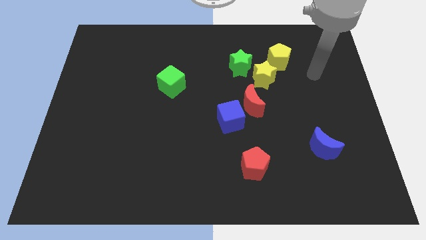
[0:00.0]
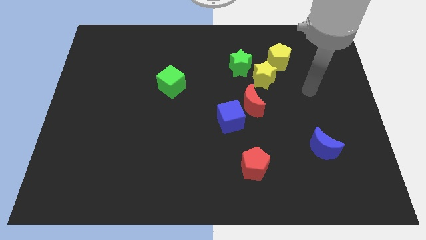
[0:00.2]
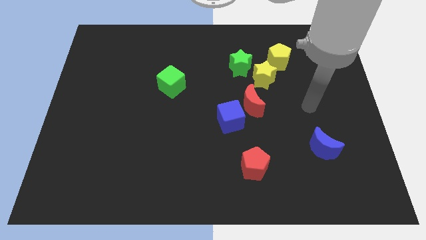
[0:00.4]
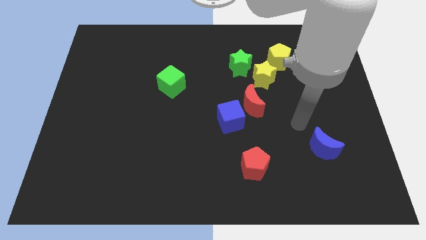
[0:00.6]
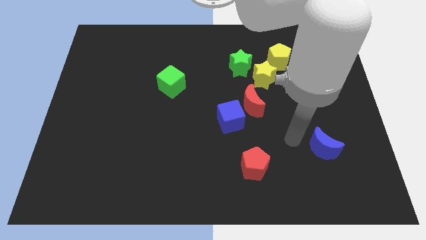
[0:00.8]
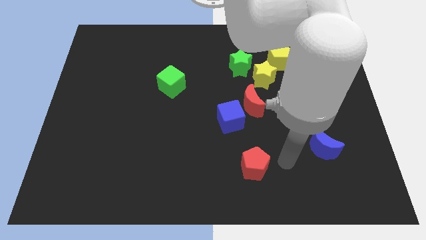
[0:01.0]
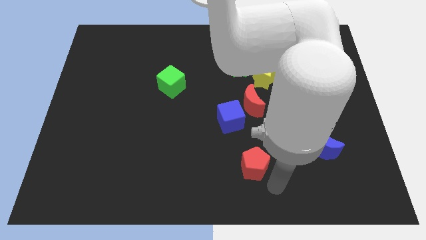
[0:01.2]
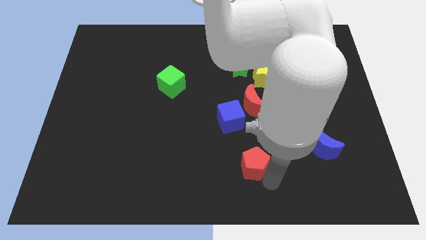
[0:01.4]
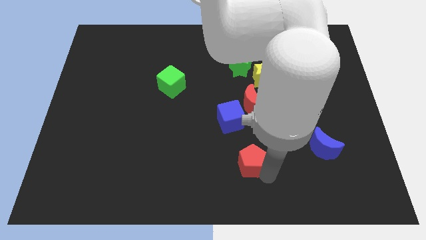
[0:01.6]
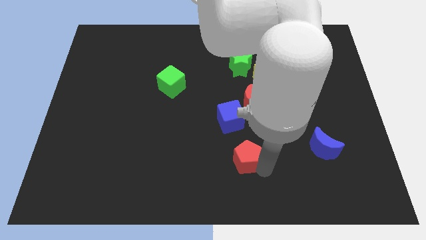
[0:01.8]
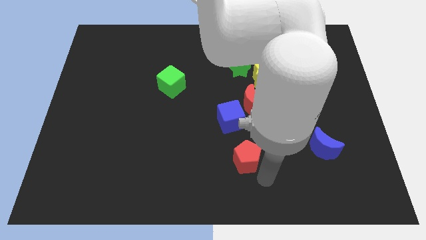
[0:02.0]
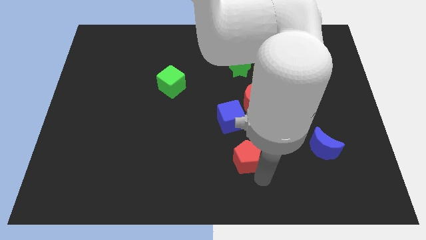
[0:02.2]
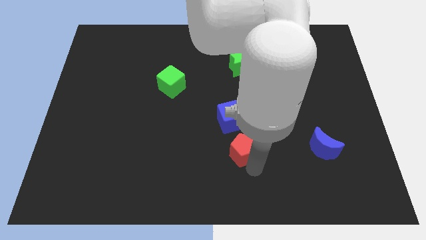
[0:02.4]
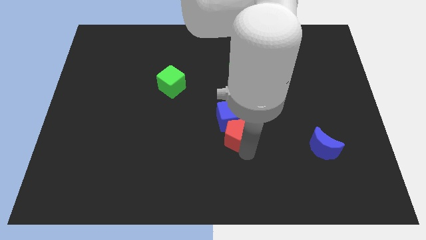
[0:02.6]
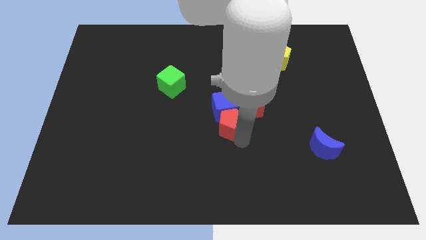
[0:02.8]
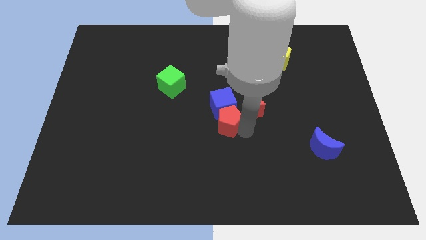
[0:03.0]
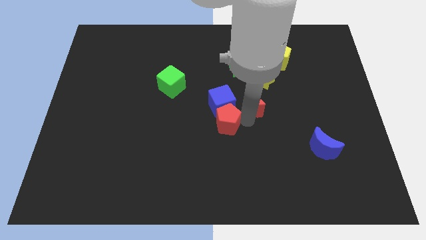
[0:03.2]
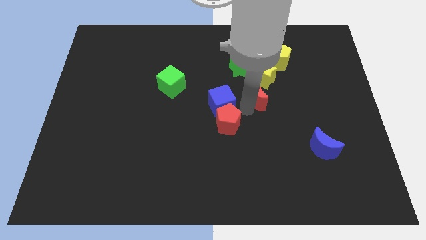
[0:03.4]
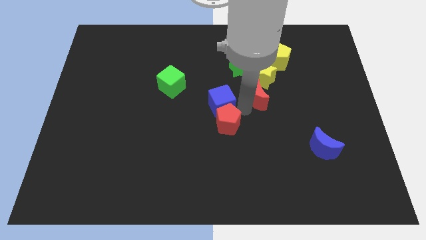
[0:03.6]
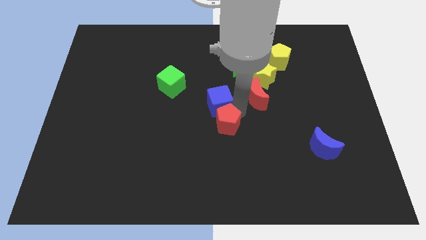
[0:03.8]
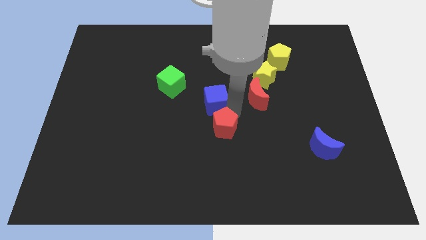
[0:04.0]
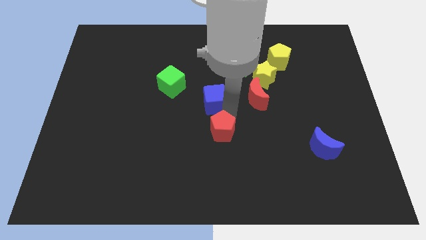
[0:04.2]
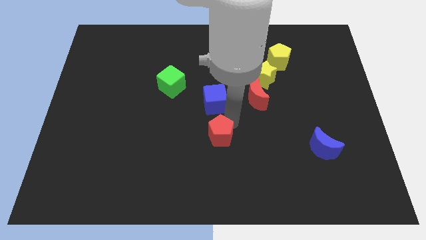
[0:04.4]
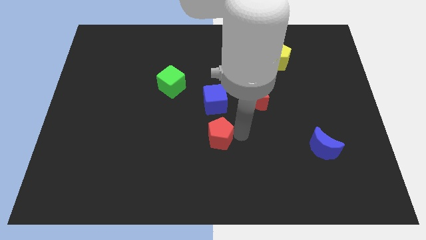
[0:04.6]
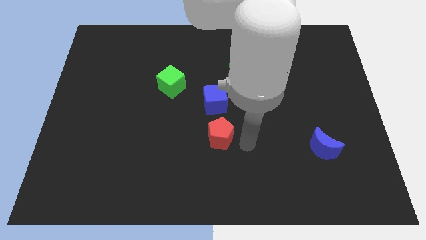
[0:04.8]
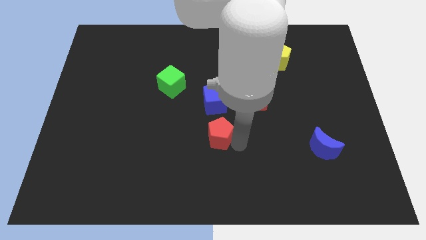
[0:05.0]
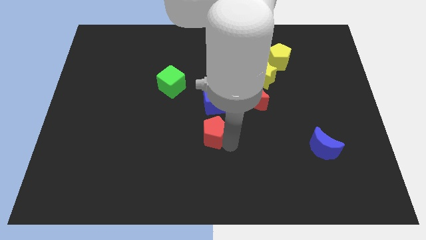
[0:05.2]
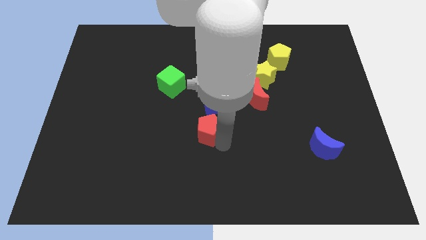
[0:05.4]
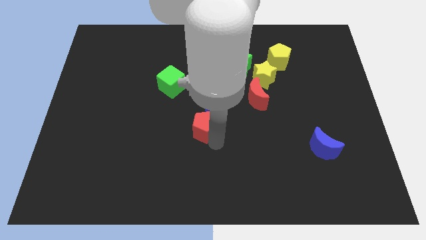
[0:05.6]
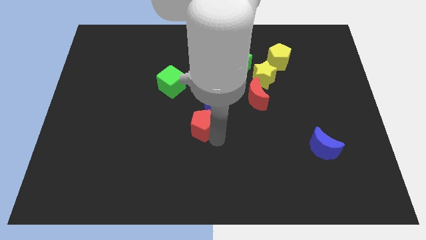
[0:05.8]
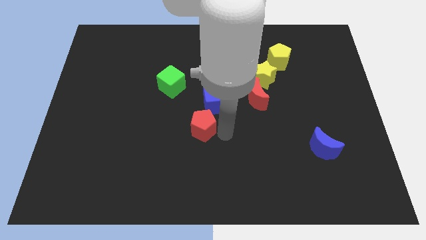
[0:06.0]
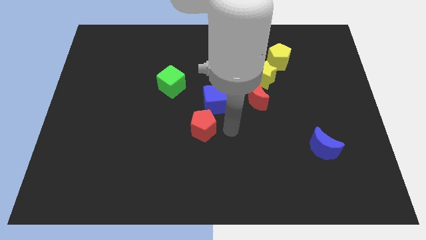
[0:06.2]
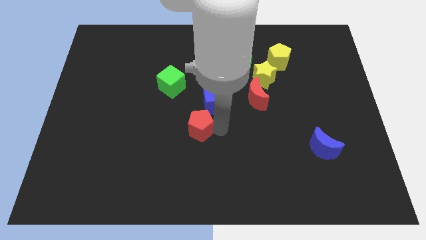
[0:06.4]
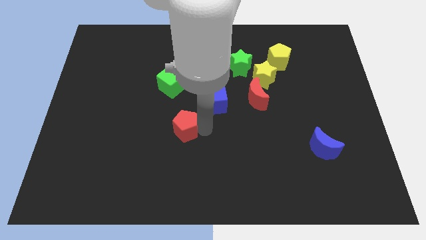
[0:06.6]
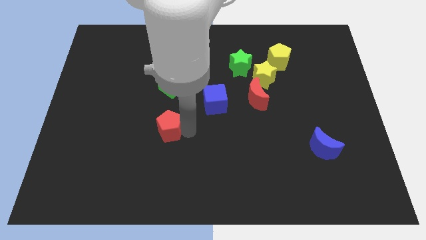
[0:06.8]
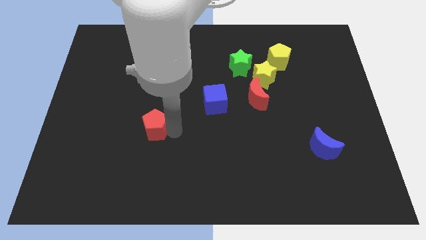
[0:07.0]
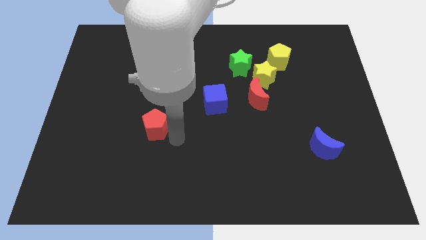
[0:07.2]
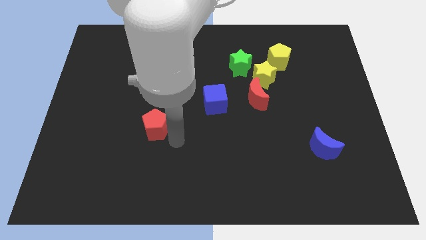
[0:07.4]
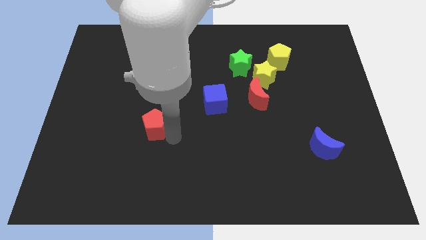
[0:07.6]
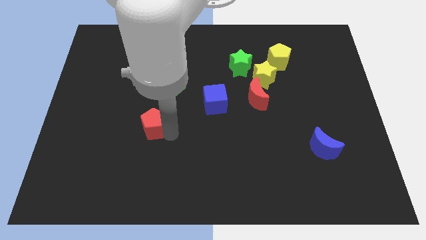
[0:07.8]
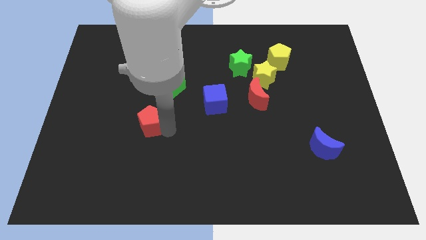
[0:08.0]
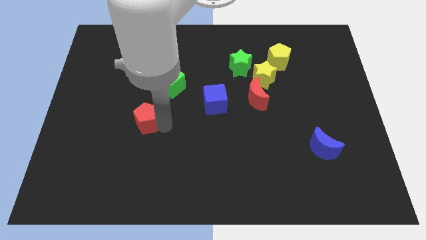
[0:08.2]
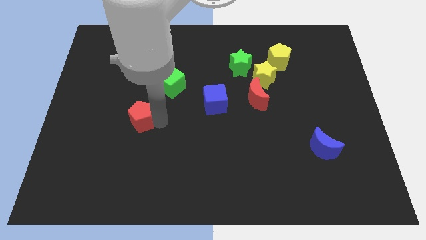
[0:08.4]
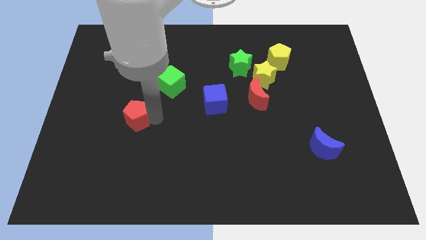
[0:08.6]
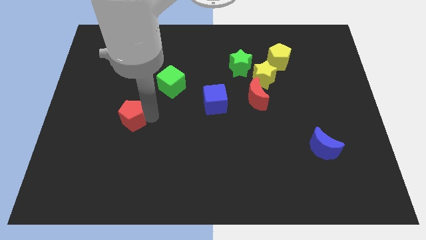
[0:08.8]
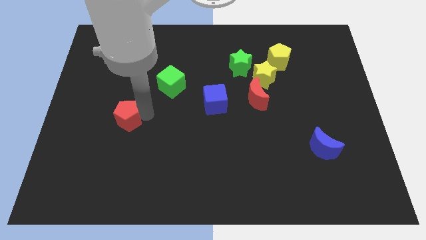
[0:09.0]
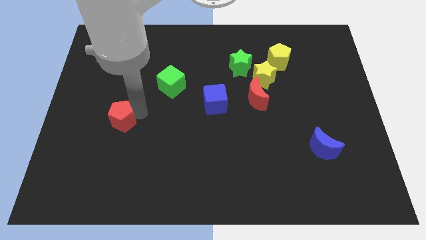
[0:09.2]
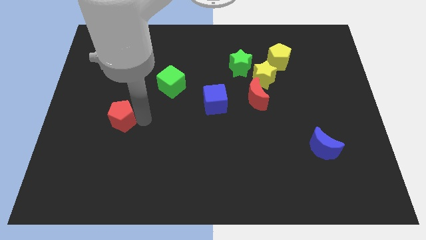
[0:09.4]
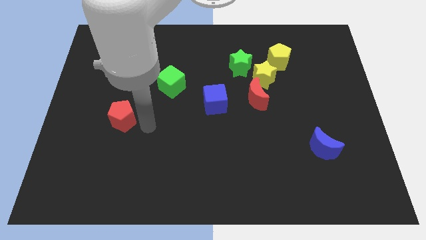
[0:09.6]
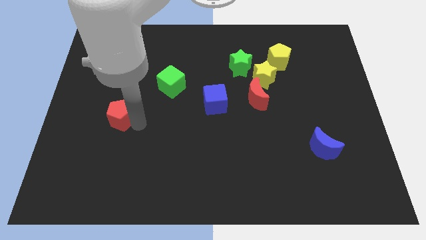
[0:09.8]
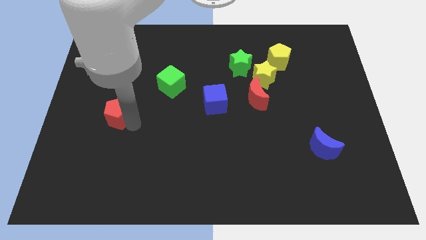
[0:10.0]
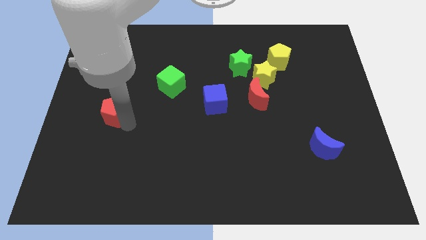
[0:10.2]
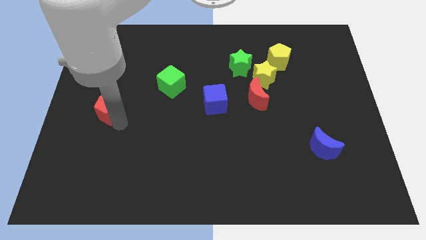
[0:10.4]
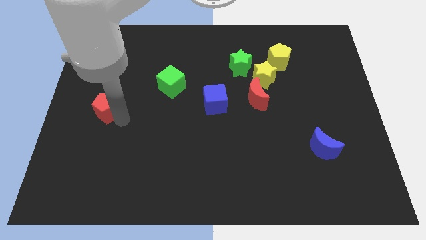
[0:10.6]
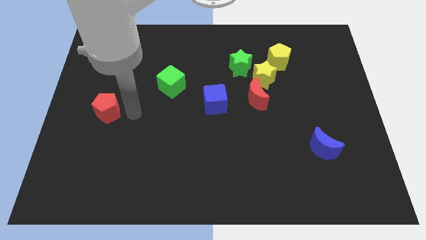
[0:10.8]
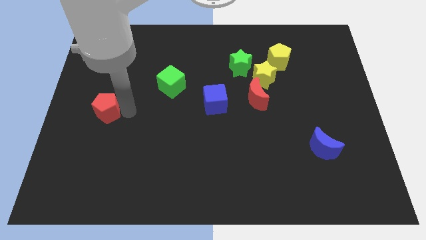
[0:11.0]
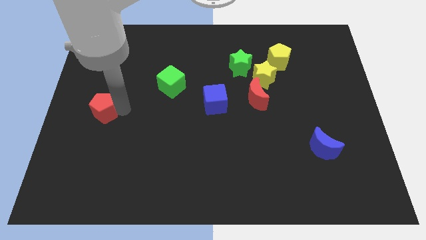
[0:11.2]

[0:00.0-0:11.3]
move the red pentagon to the center left
